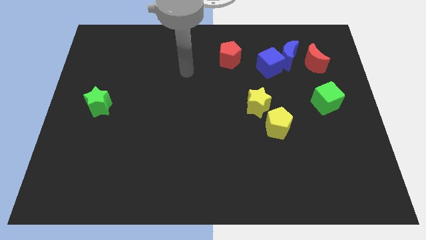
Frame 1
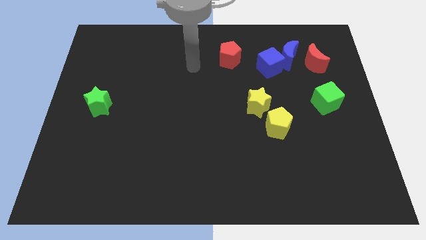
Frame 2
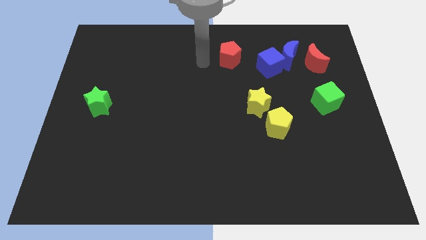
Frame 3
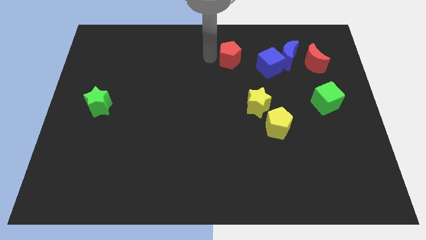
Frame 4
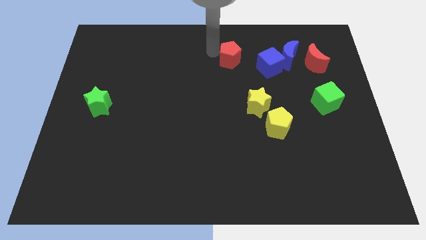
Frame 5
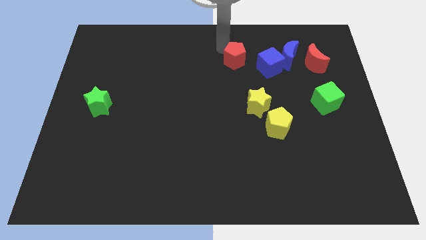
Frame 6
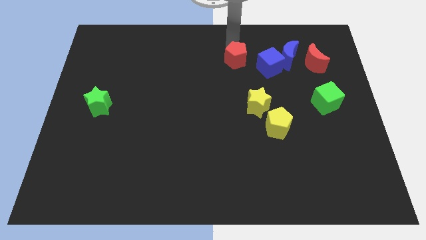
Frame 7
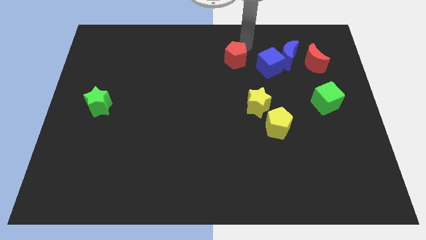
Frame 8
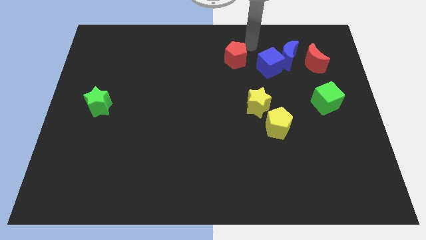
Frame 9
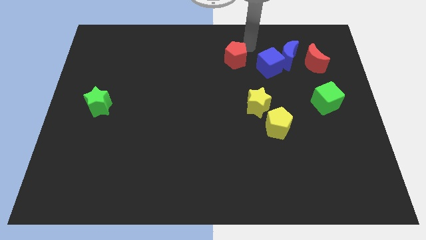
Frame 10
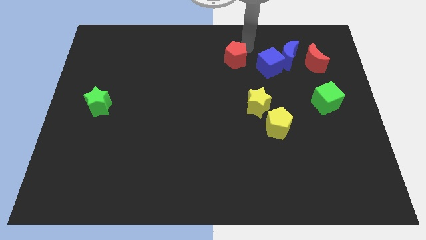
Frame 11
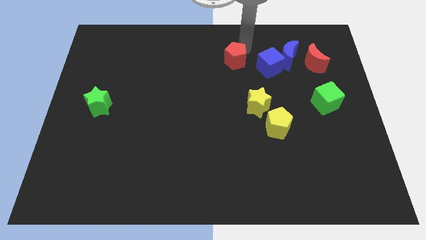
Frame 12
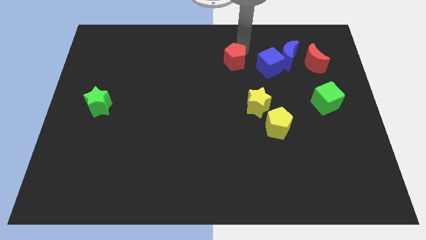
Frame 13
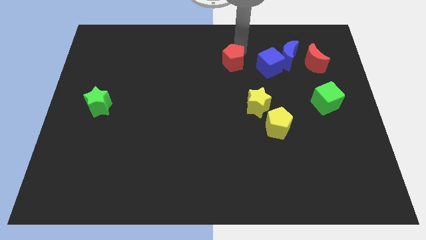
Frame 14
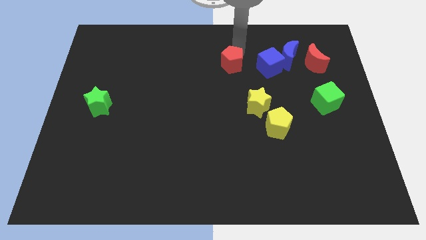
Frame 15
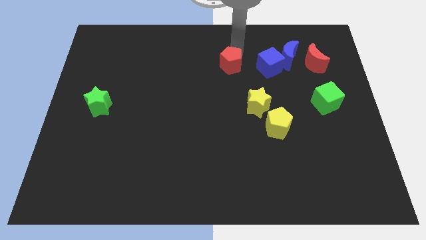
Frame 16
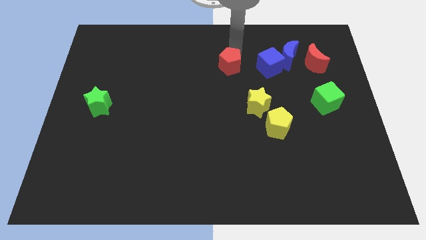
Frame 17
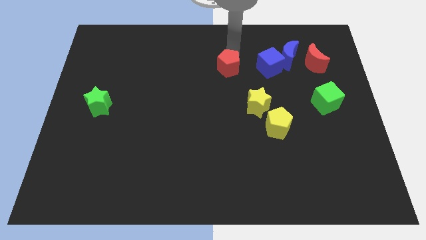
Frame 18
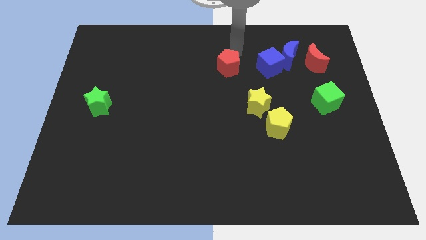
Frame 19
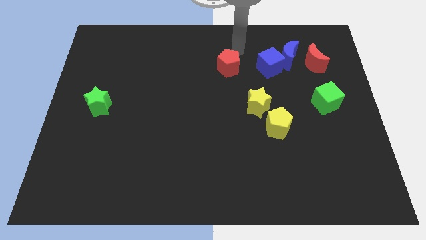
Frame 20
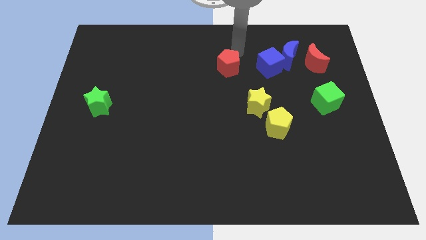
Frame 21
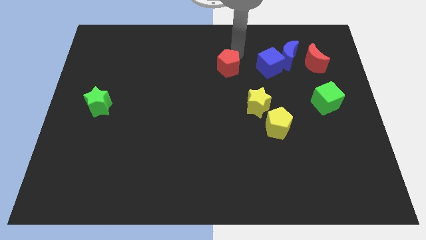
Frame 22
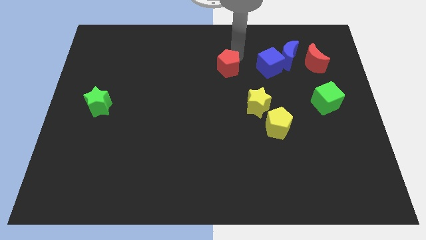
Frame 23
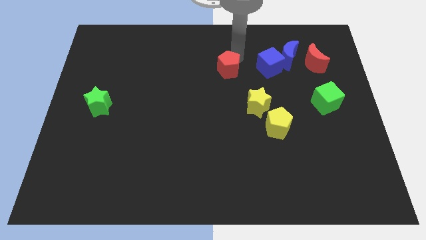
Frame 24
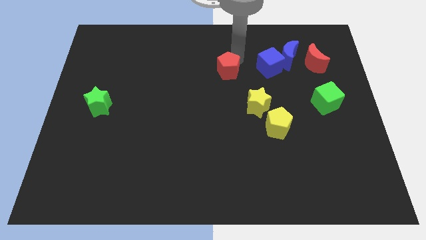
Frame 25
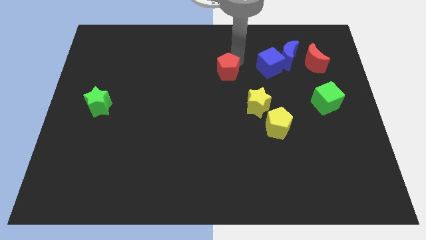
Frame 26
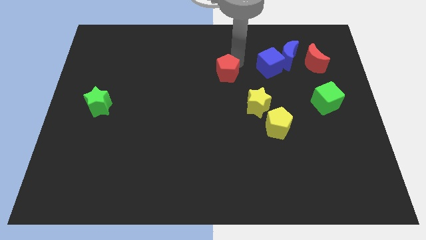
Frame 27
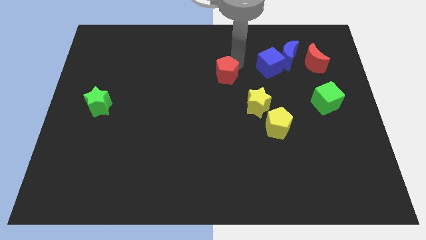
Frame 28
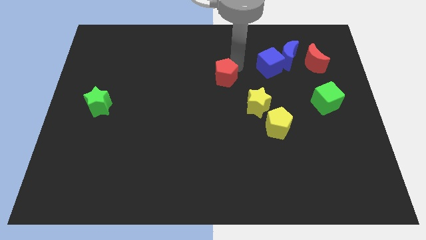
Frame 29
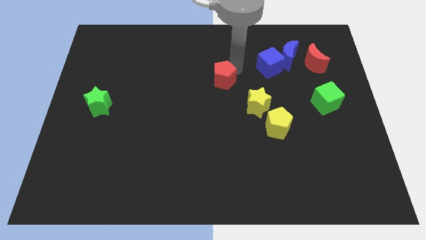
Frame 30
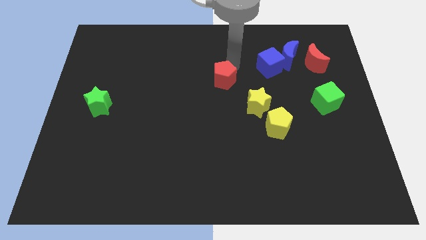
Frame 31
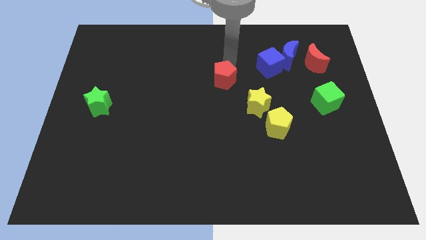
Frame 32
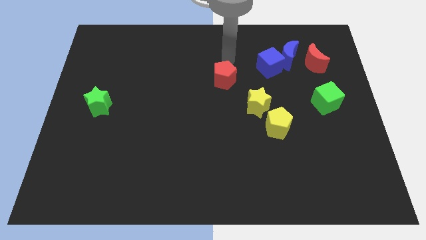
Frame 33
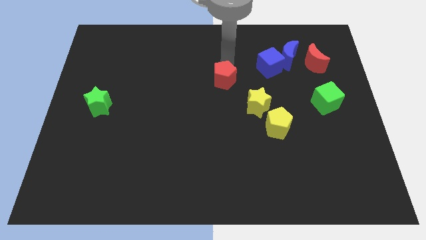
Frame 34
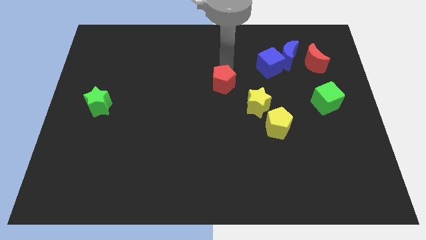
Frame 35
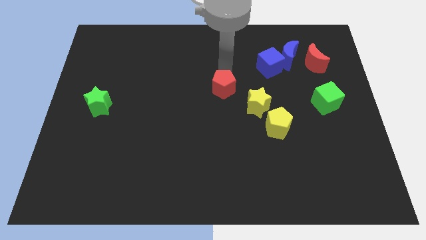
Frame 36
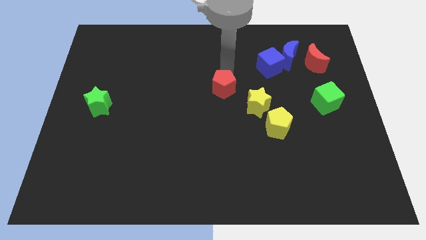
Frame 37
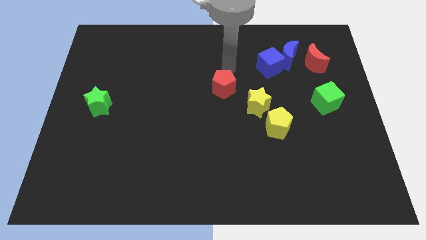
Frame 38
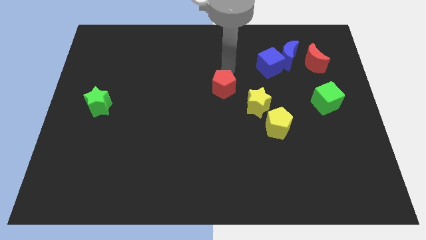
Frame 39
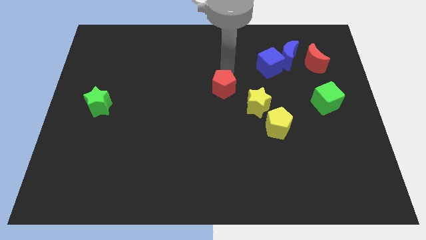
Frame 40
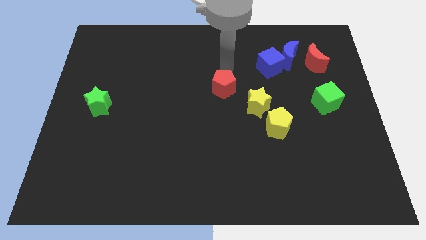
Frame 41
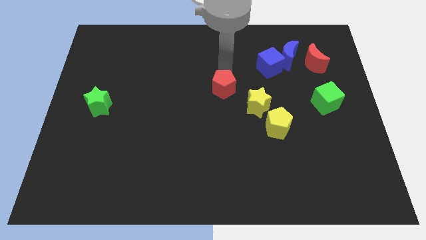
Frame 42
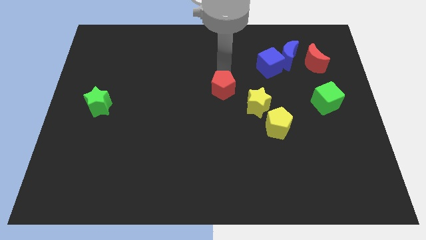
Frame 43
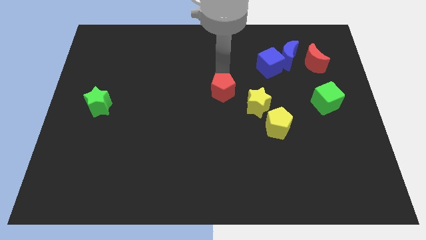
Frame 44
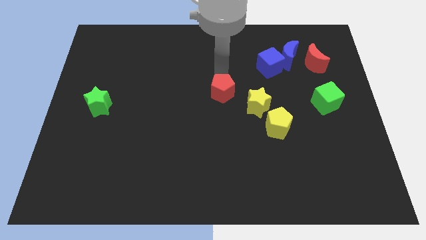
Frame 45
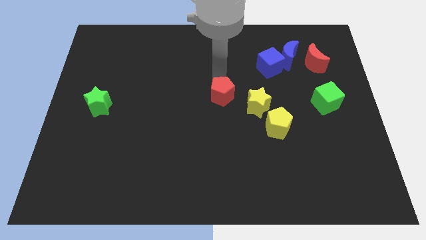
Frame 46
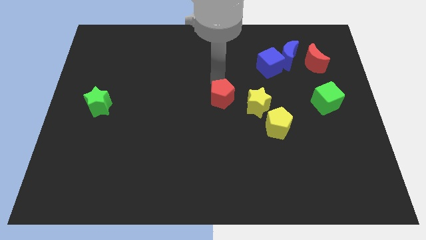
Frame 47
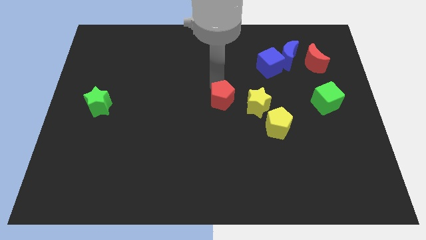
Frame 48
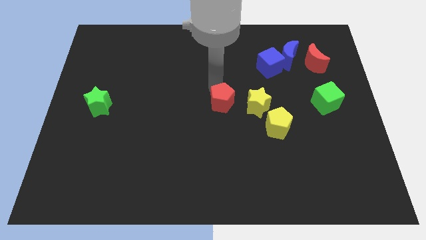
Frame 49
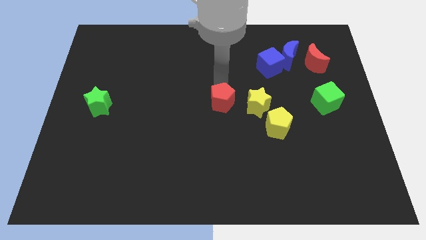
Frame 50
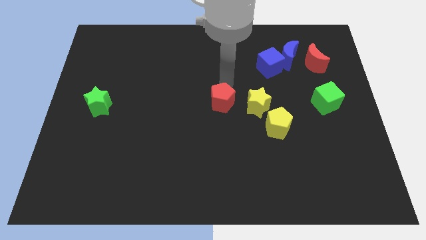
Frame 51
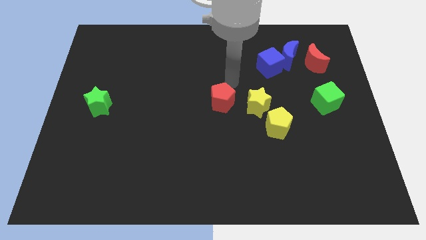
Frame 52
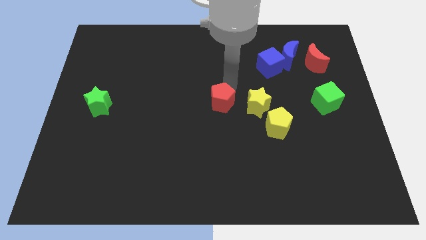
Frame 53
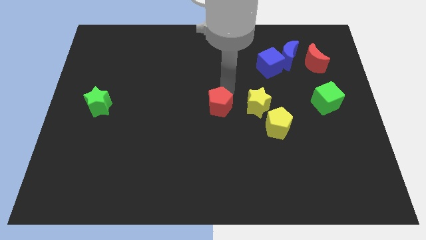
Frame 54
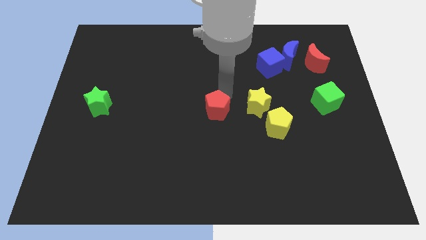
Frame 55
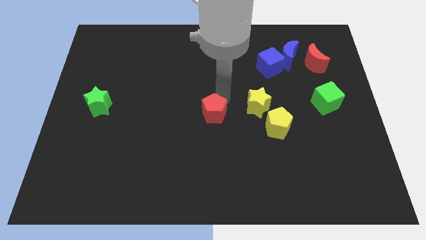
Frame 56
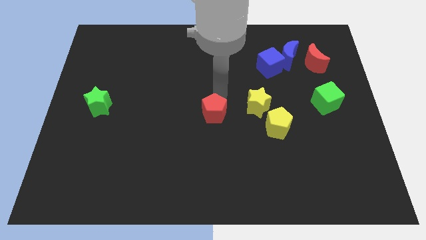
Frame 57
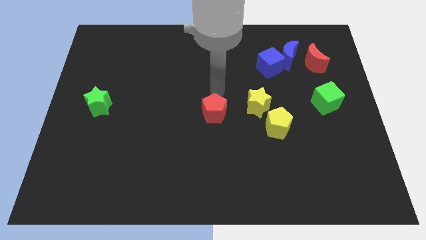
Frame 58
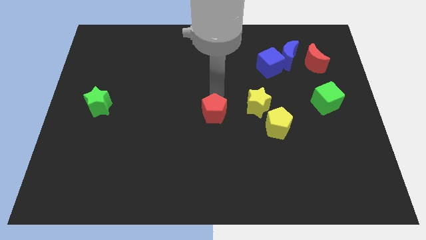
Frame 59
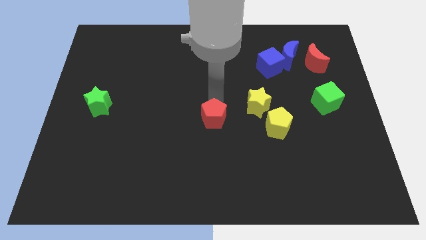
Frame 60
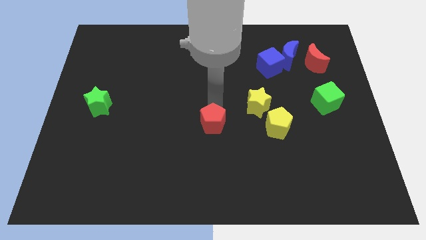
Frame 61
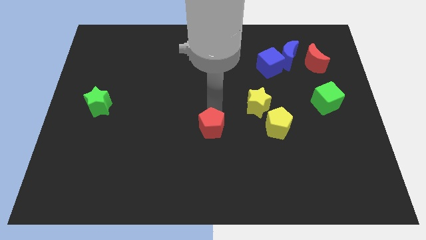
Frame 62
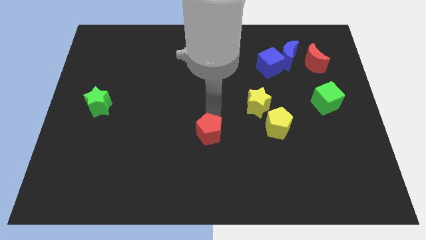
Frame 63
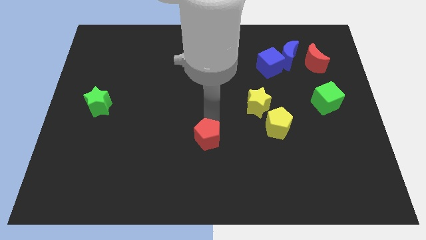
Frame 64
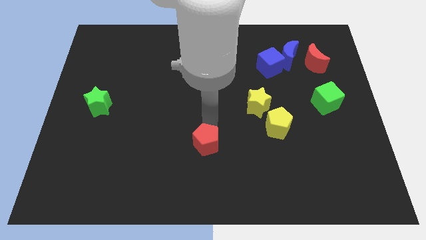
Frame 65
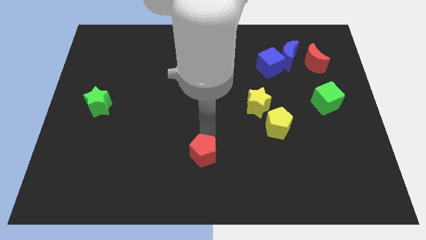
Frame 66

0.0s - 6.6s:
slide the red pentagon to the bottom side
